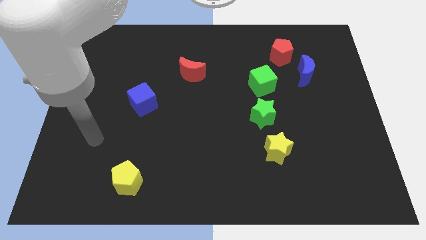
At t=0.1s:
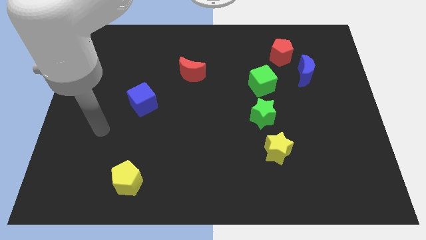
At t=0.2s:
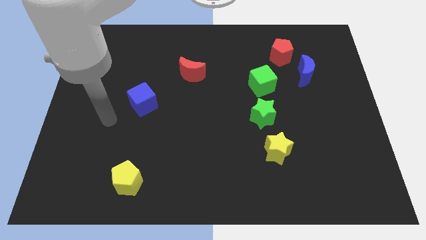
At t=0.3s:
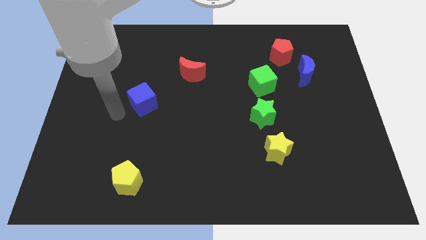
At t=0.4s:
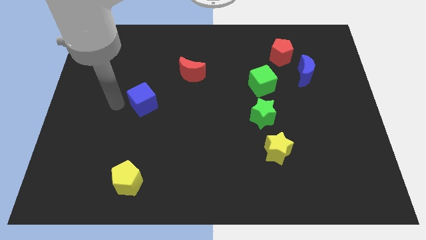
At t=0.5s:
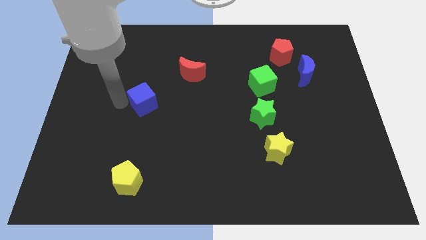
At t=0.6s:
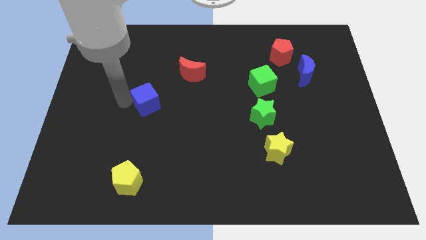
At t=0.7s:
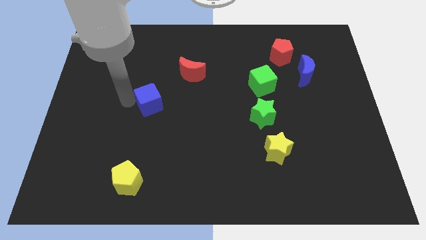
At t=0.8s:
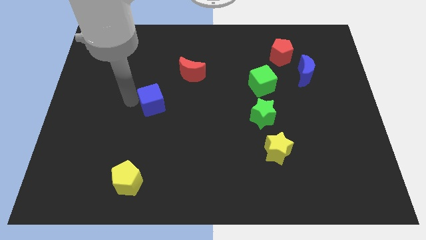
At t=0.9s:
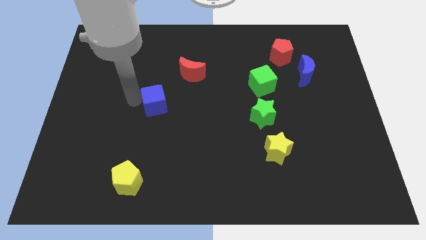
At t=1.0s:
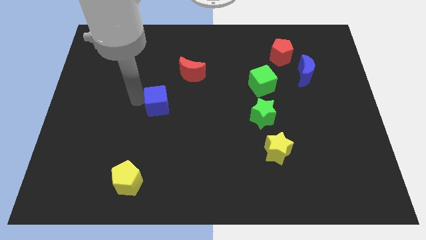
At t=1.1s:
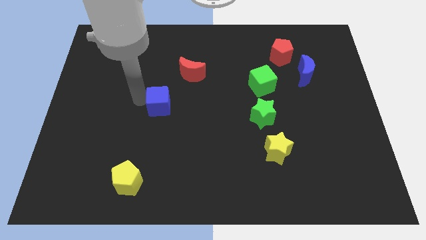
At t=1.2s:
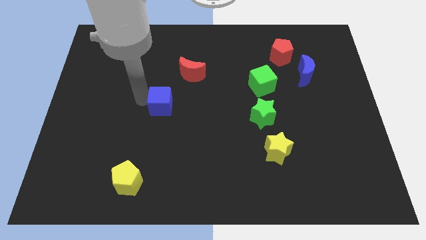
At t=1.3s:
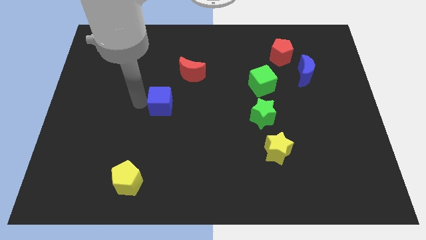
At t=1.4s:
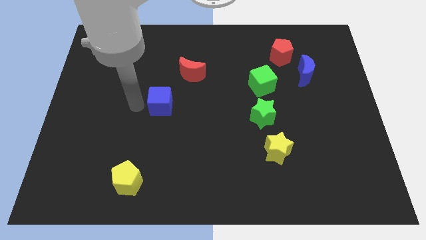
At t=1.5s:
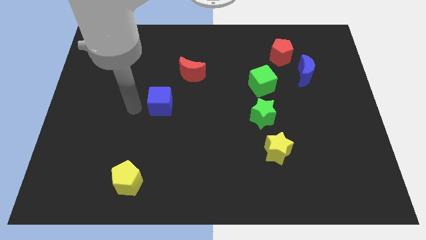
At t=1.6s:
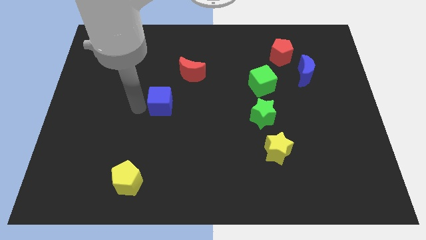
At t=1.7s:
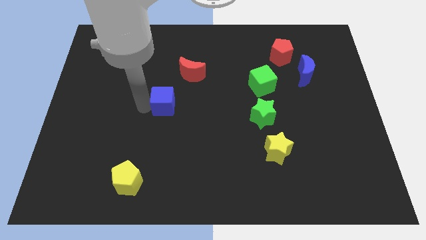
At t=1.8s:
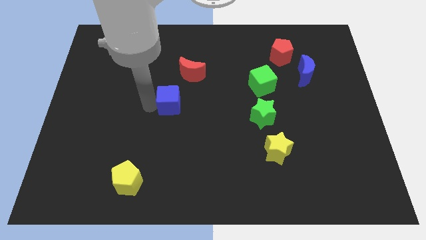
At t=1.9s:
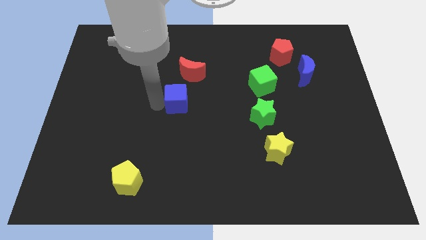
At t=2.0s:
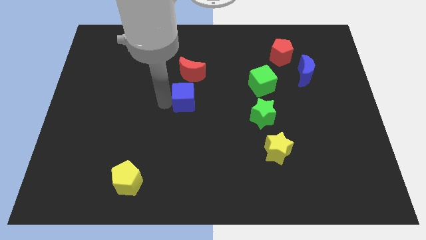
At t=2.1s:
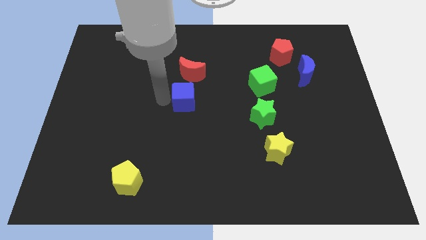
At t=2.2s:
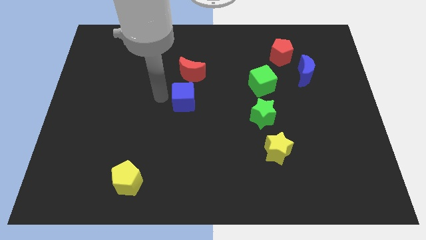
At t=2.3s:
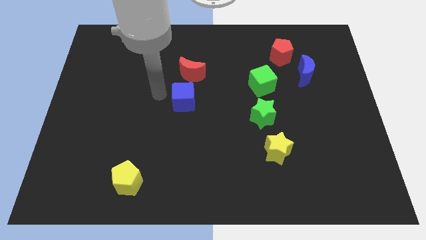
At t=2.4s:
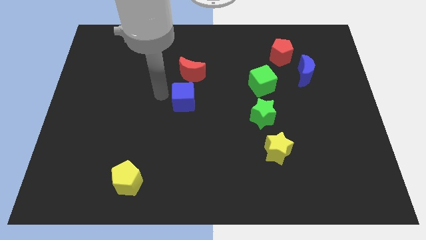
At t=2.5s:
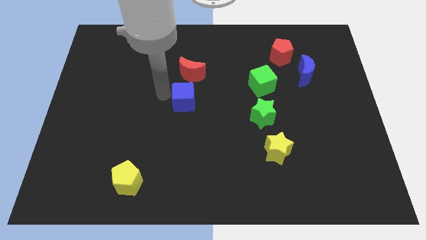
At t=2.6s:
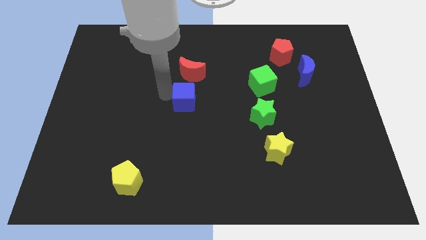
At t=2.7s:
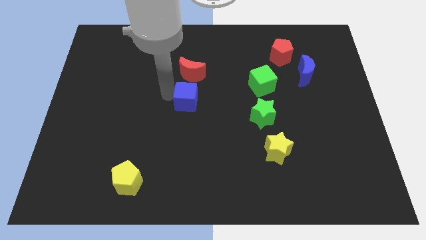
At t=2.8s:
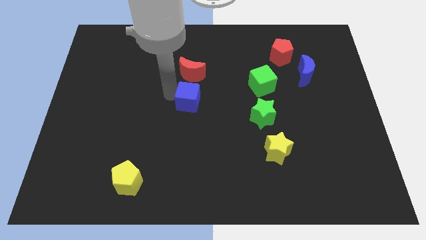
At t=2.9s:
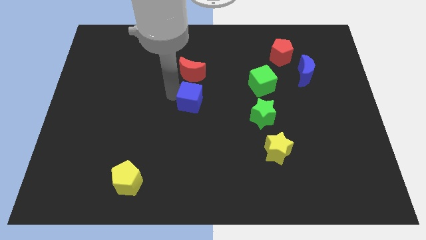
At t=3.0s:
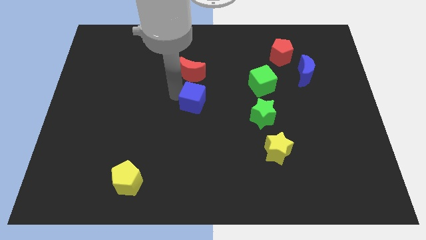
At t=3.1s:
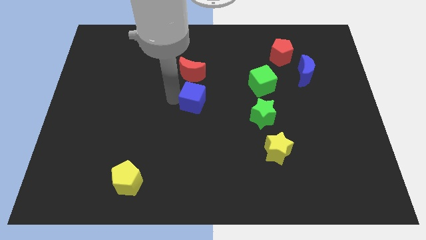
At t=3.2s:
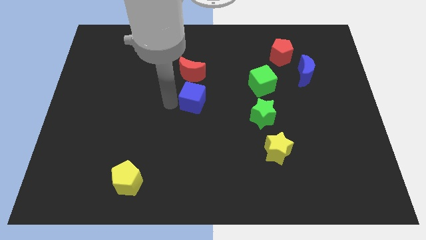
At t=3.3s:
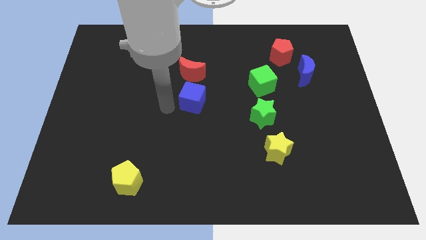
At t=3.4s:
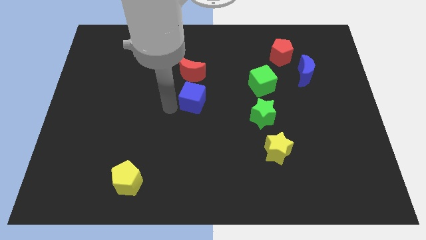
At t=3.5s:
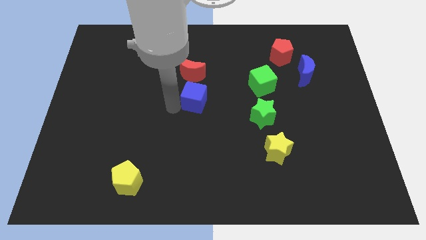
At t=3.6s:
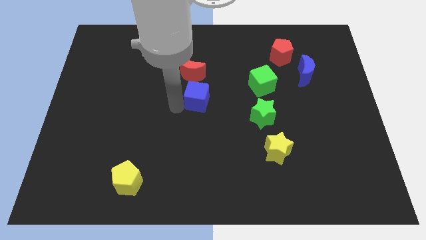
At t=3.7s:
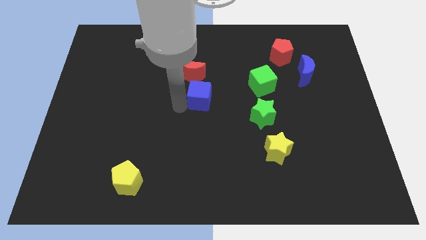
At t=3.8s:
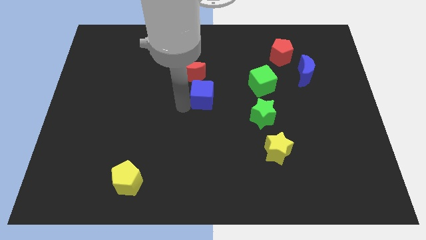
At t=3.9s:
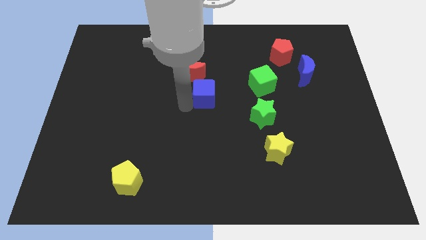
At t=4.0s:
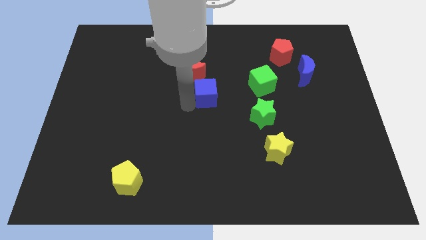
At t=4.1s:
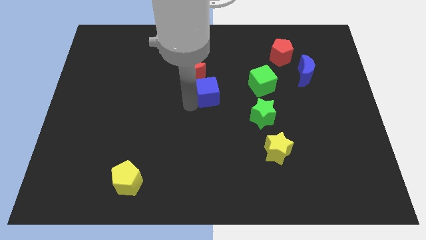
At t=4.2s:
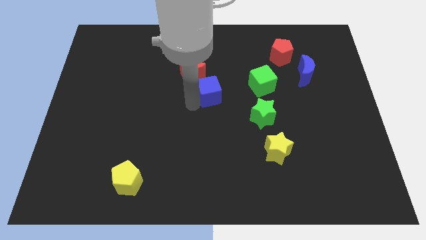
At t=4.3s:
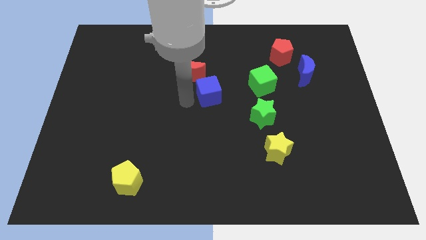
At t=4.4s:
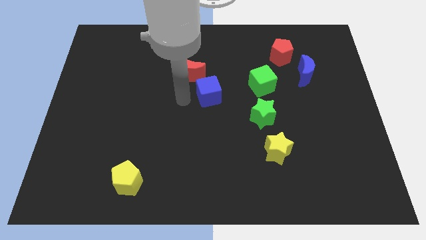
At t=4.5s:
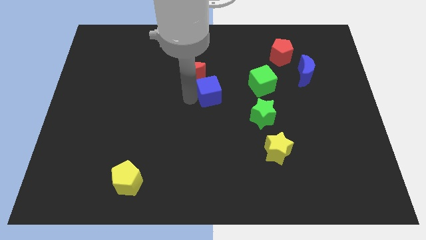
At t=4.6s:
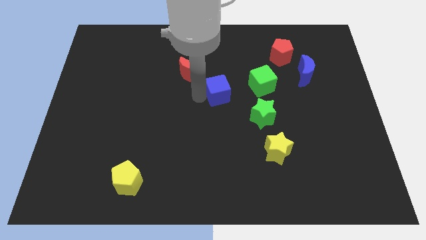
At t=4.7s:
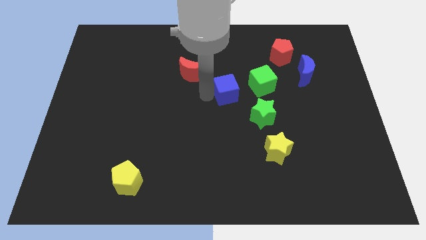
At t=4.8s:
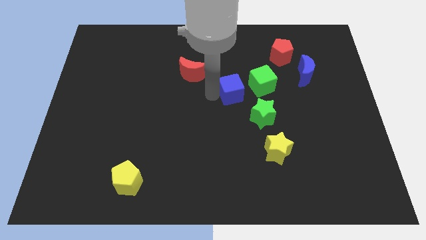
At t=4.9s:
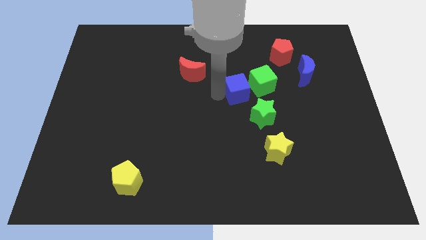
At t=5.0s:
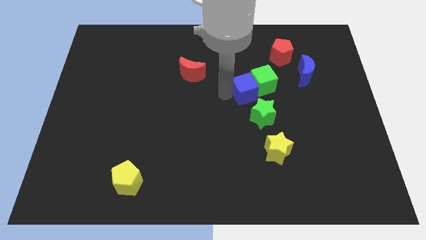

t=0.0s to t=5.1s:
put the blue cube close to the green cube

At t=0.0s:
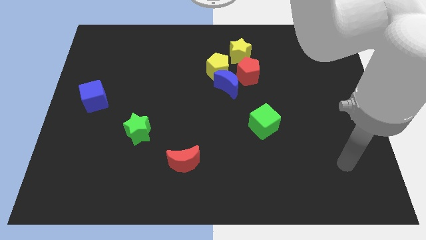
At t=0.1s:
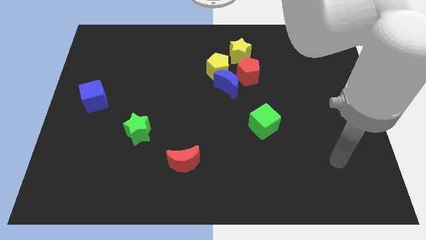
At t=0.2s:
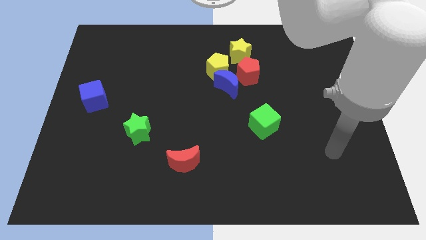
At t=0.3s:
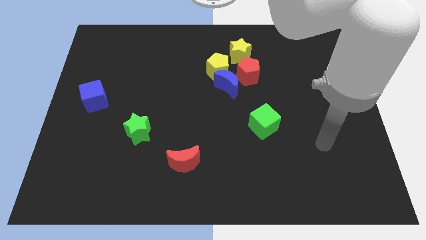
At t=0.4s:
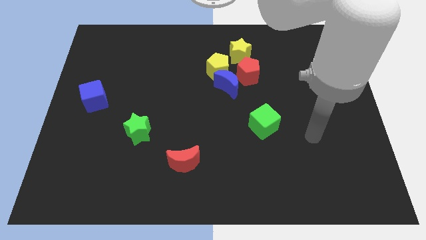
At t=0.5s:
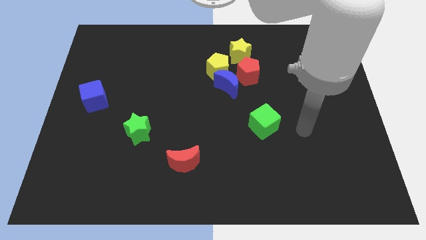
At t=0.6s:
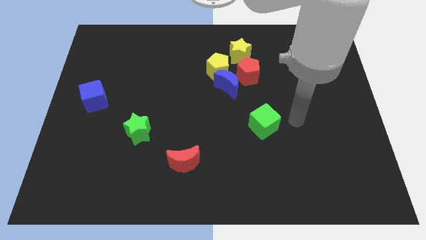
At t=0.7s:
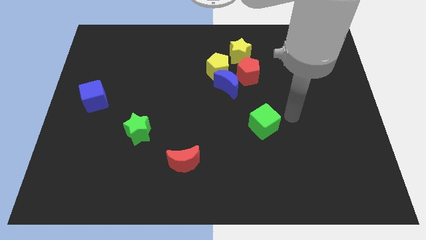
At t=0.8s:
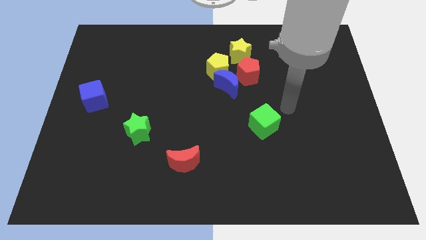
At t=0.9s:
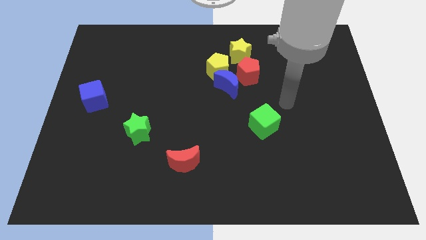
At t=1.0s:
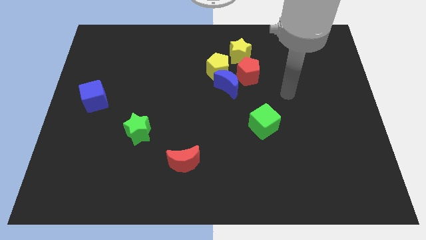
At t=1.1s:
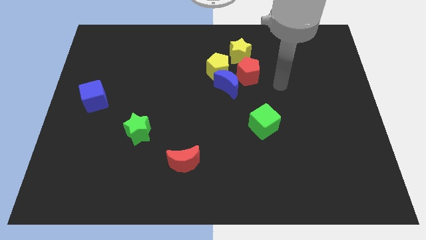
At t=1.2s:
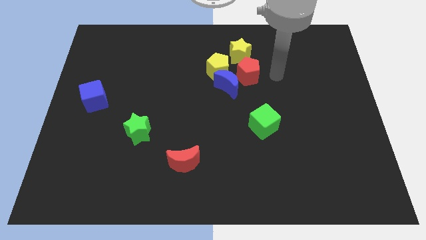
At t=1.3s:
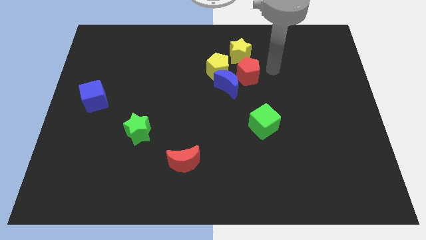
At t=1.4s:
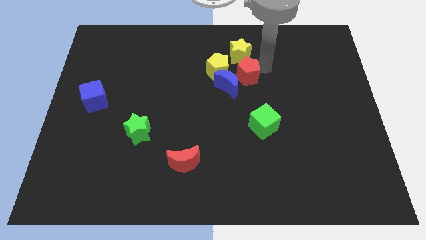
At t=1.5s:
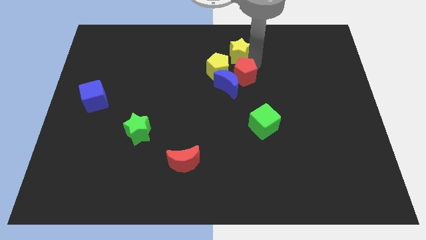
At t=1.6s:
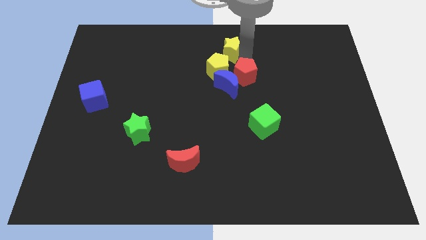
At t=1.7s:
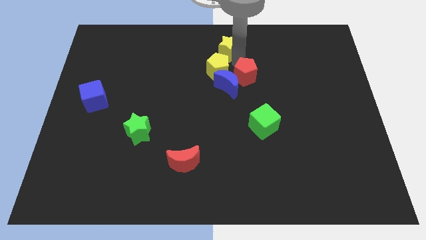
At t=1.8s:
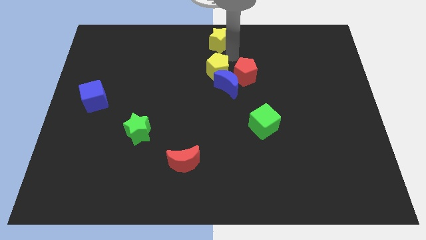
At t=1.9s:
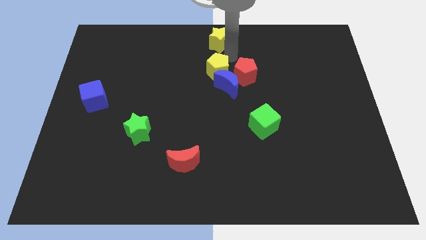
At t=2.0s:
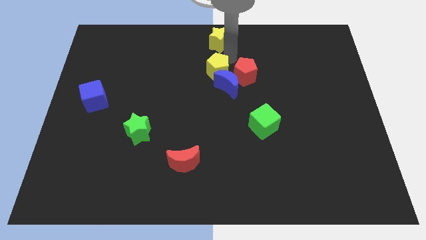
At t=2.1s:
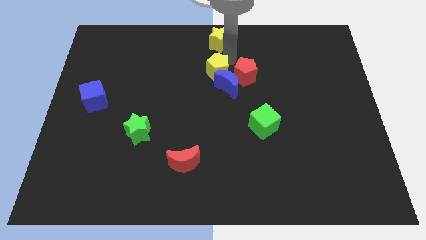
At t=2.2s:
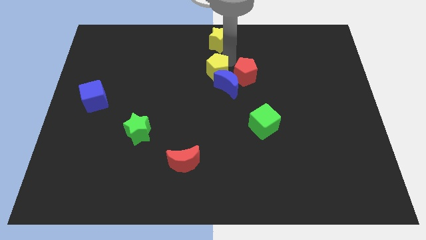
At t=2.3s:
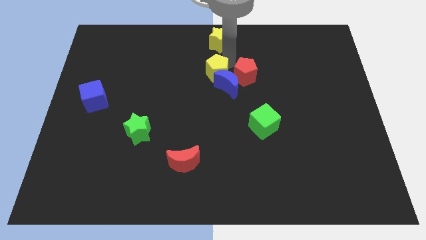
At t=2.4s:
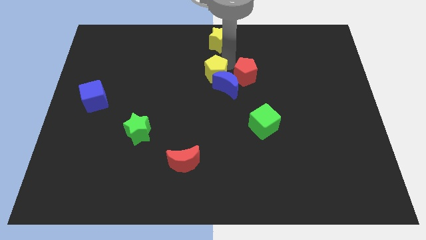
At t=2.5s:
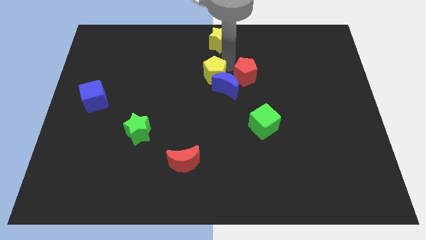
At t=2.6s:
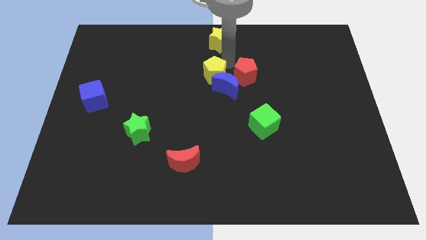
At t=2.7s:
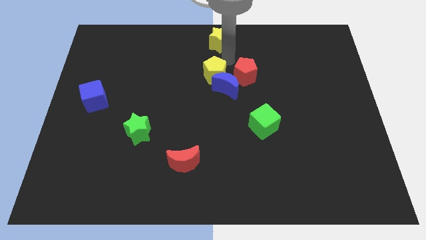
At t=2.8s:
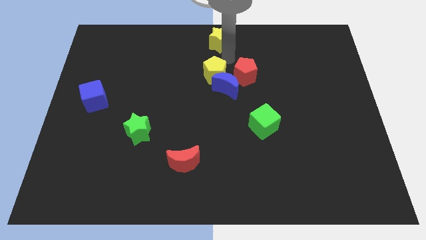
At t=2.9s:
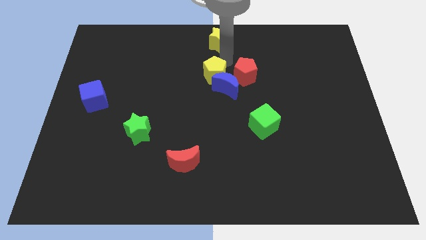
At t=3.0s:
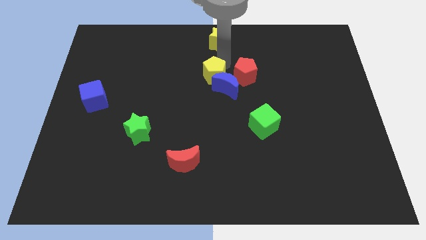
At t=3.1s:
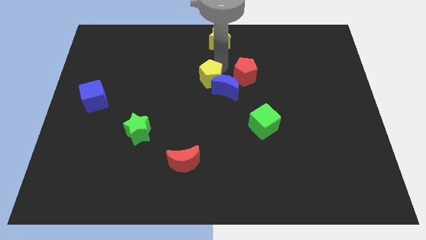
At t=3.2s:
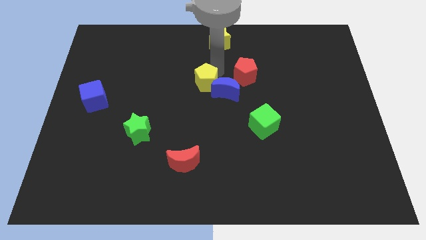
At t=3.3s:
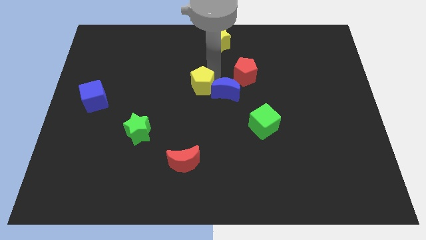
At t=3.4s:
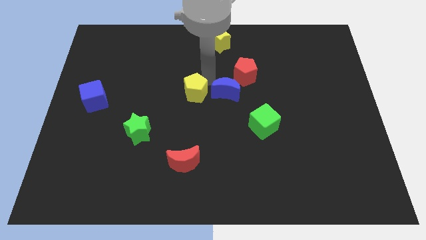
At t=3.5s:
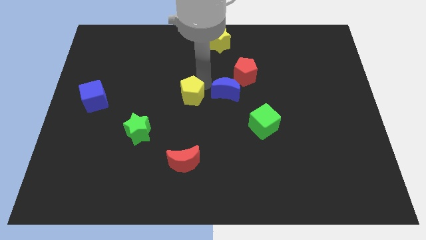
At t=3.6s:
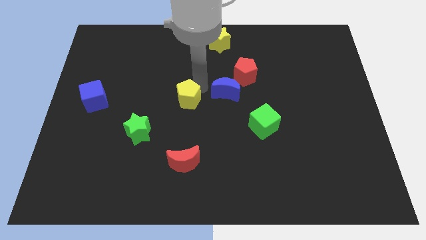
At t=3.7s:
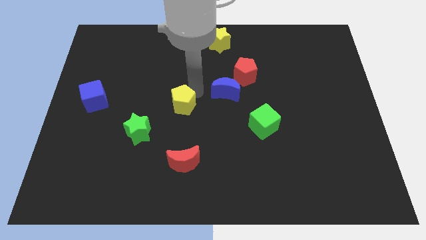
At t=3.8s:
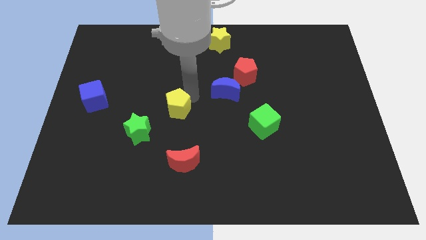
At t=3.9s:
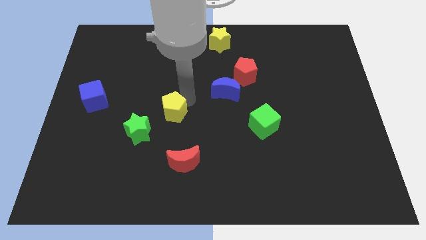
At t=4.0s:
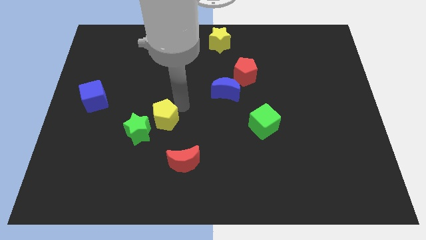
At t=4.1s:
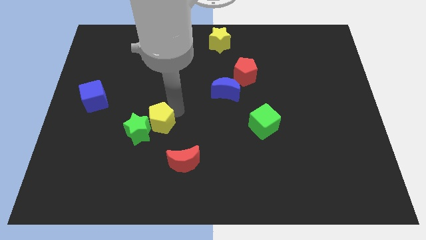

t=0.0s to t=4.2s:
slide the yellow pentagon towards the green star
